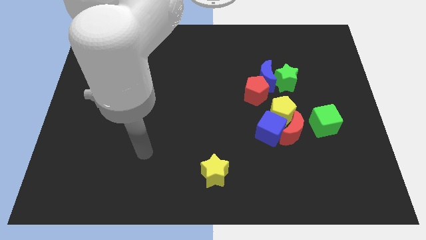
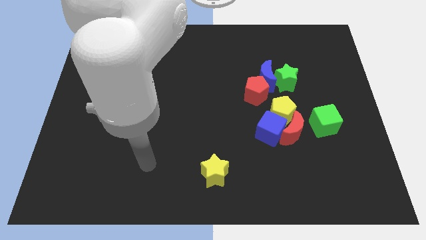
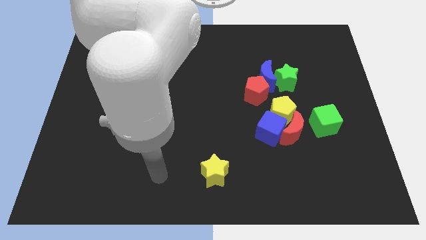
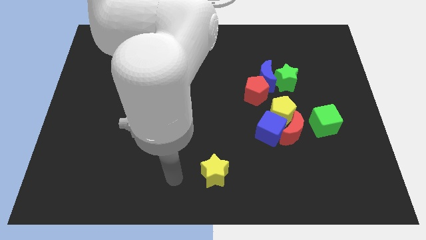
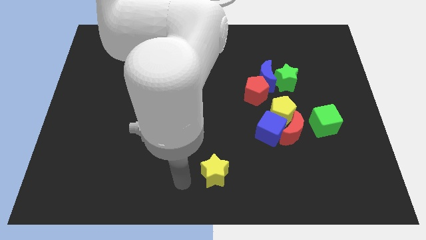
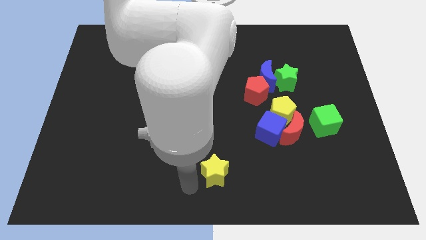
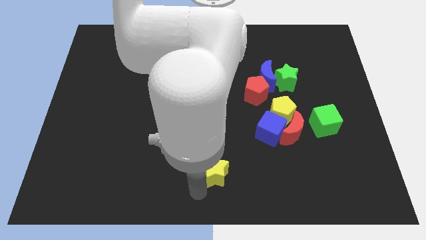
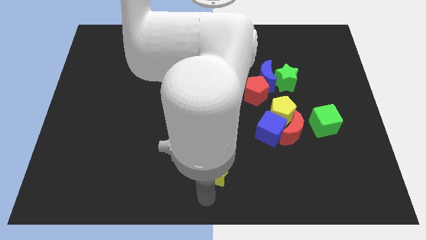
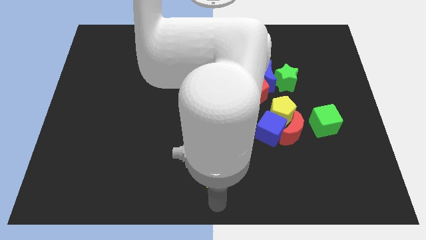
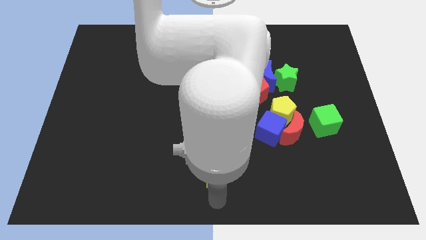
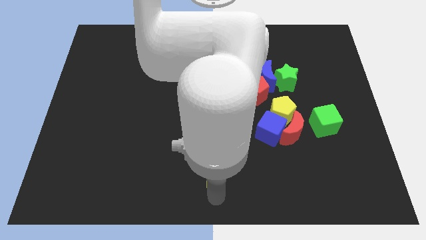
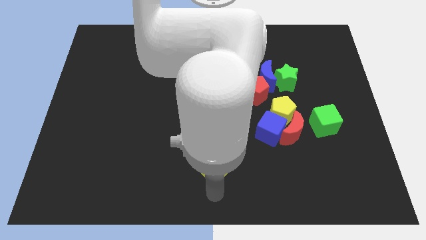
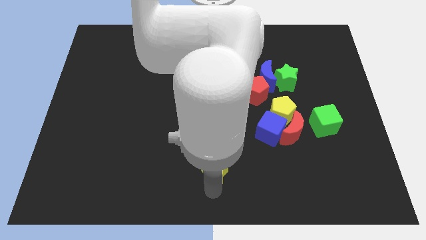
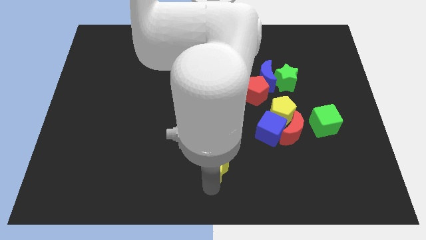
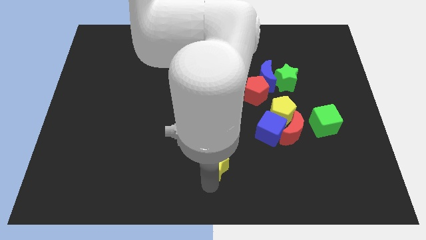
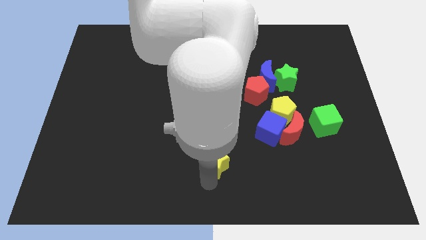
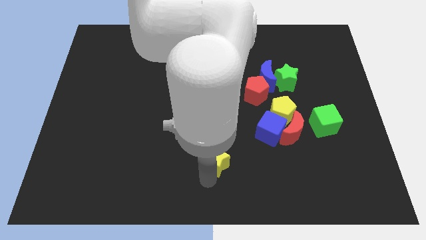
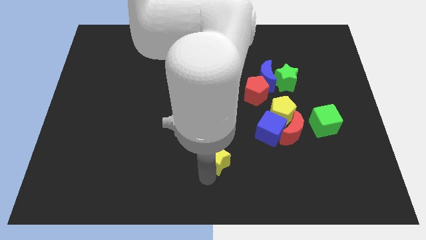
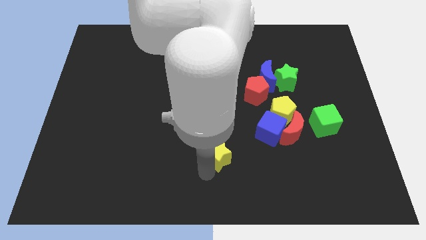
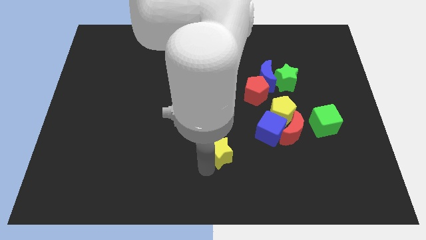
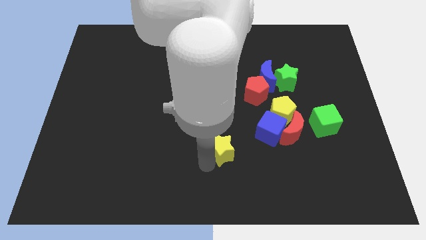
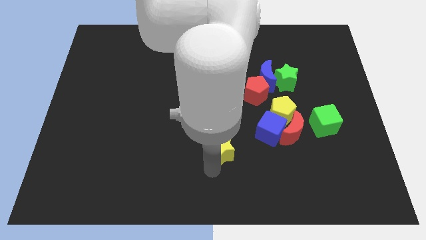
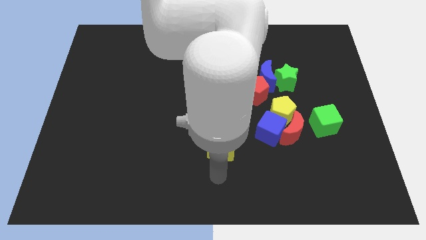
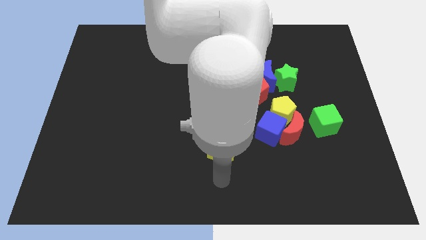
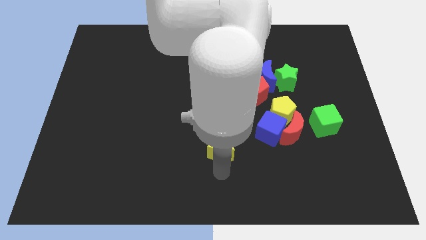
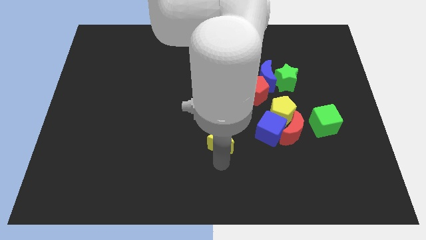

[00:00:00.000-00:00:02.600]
move the yellow star up somewhat

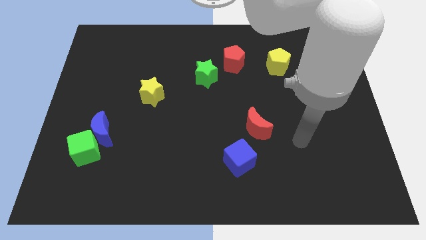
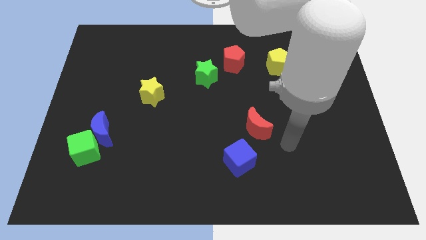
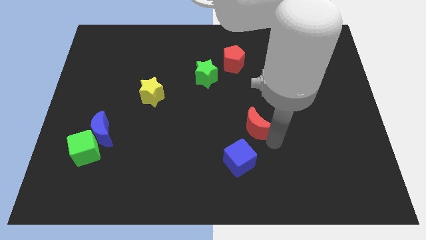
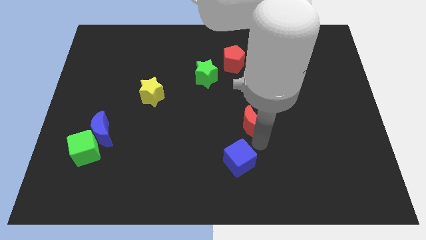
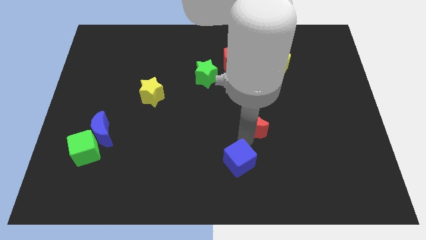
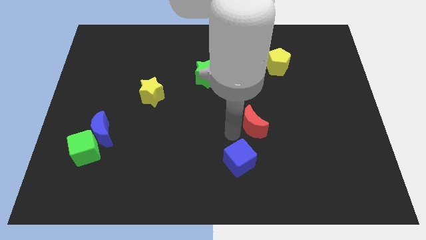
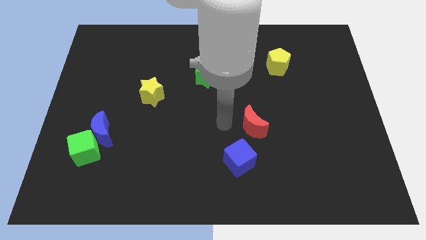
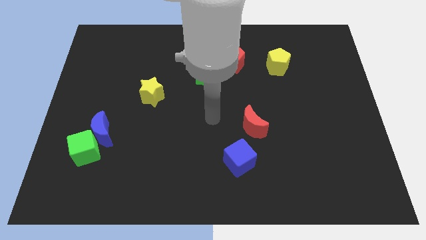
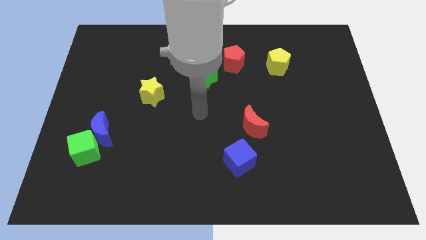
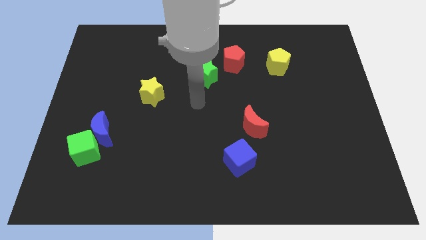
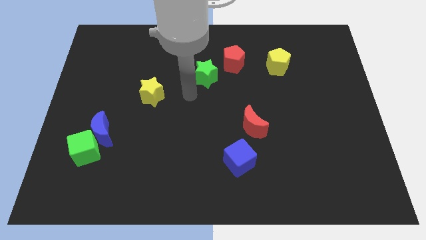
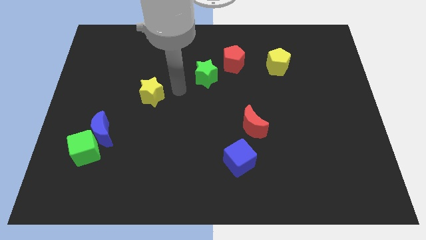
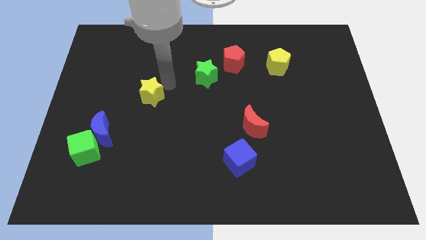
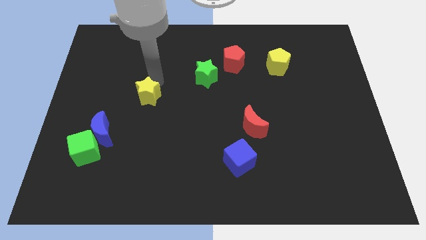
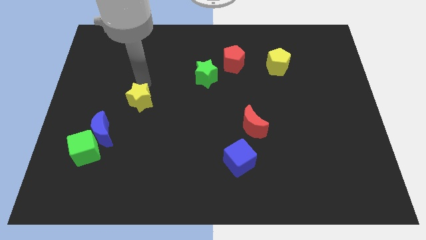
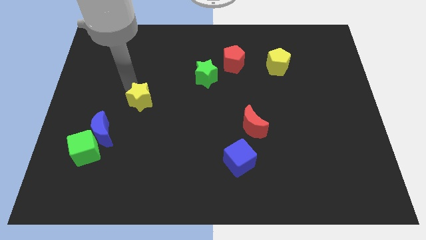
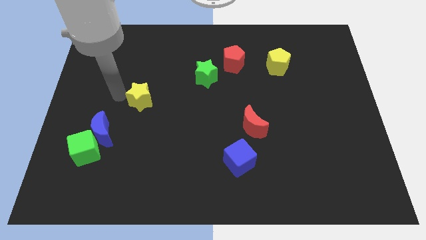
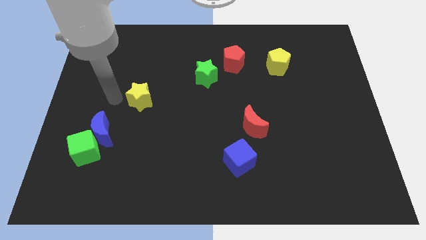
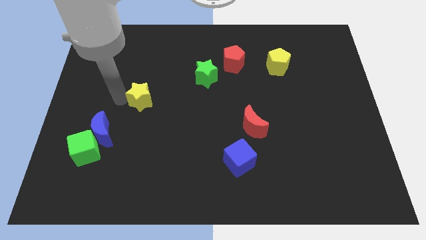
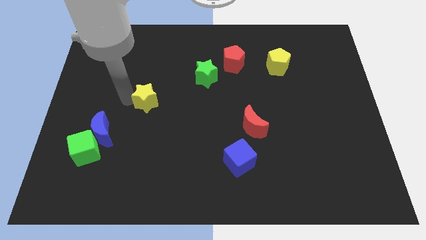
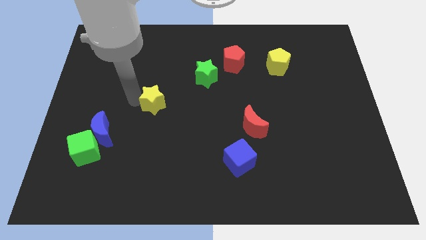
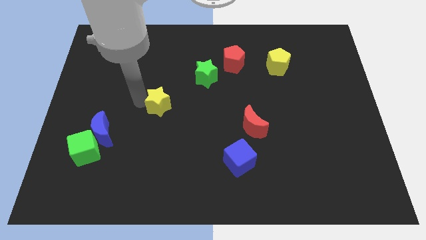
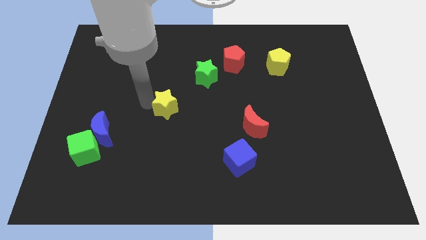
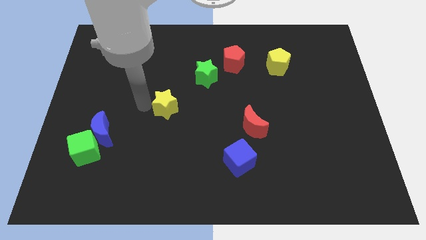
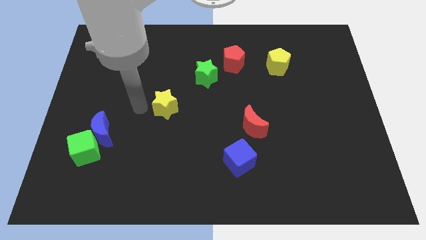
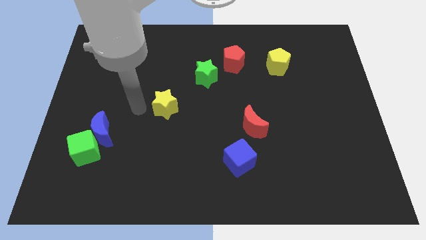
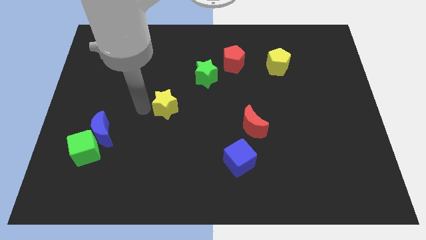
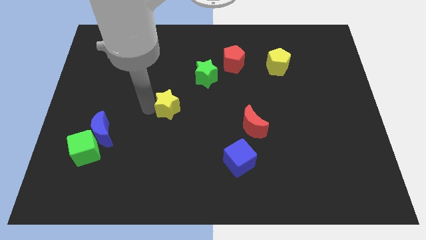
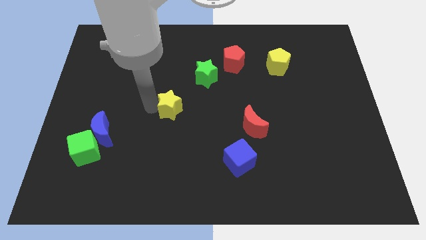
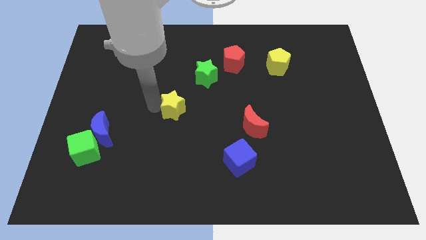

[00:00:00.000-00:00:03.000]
move the yellow star down and to the right diagonally a bit

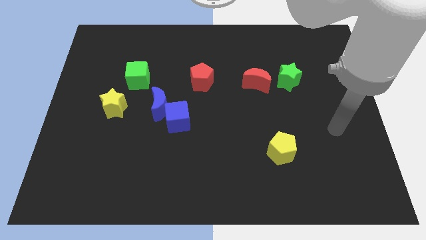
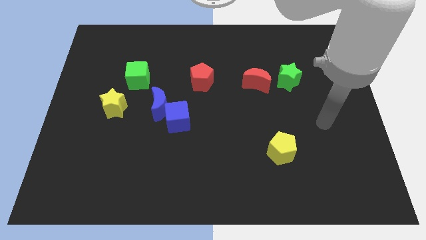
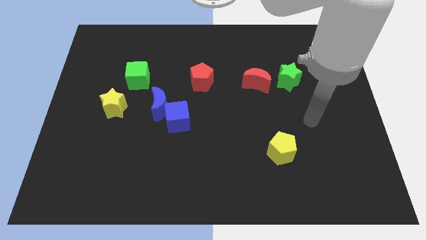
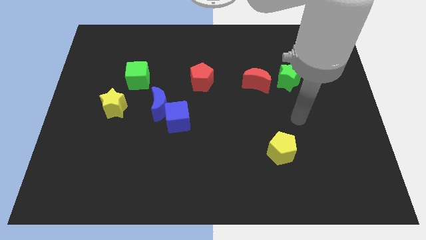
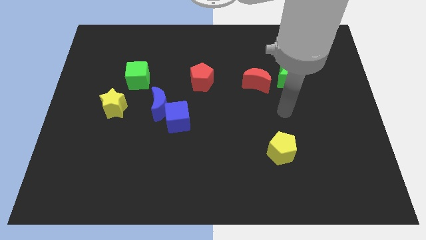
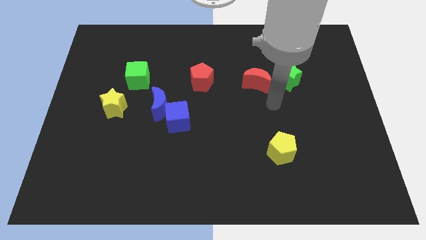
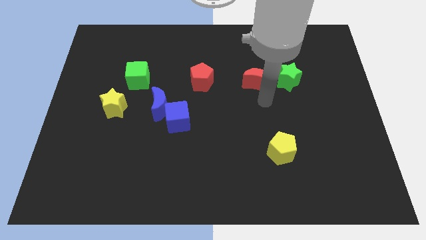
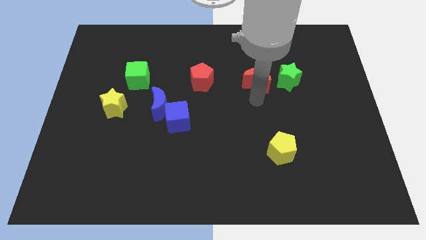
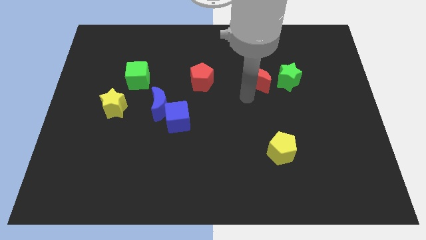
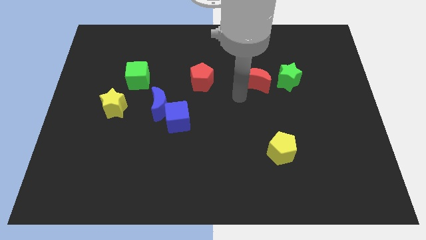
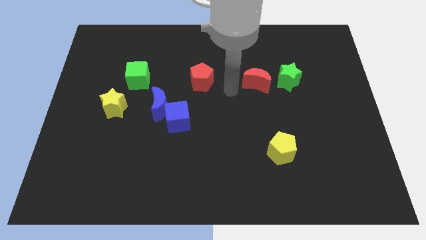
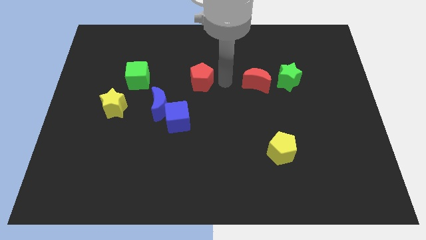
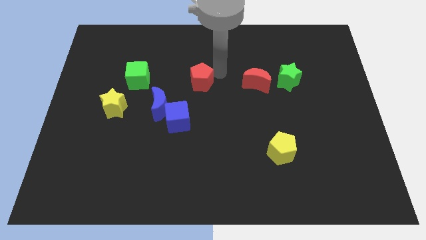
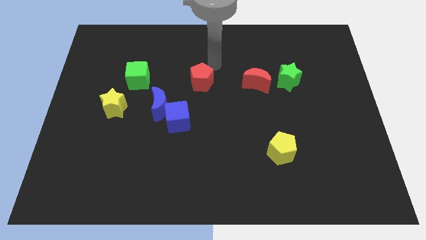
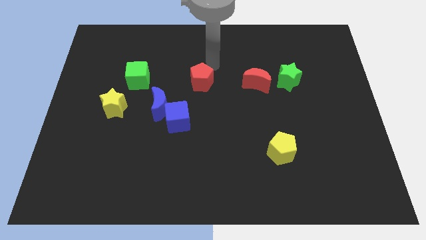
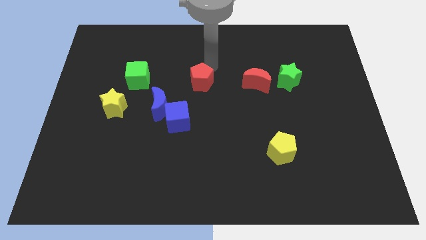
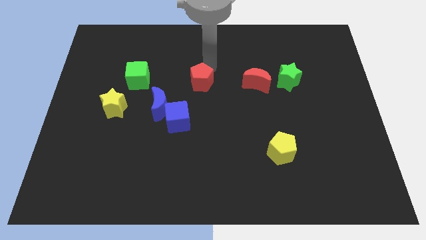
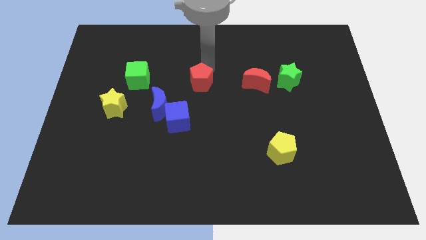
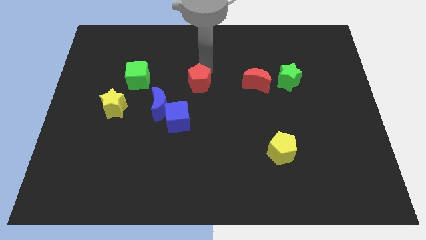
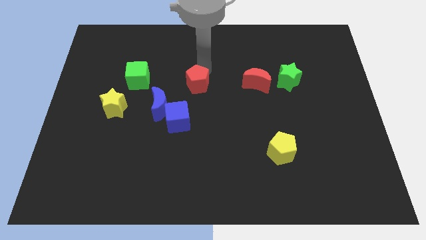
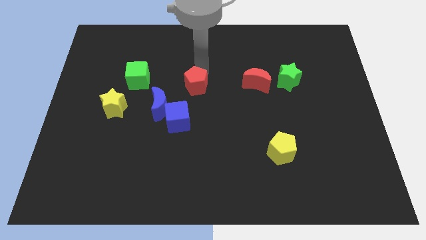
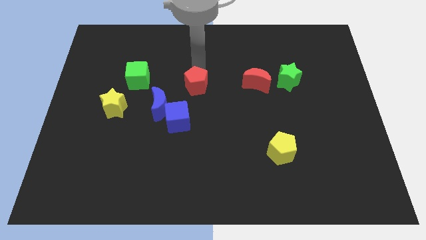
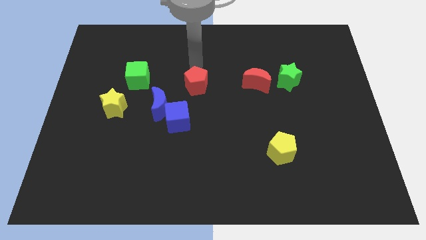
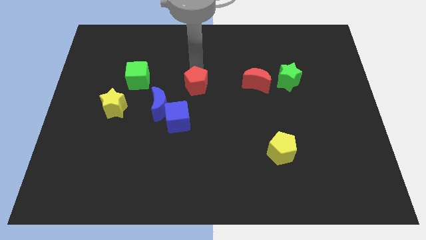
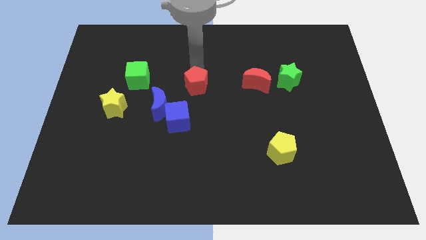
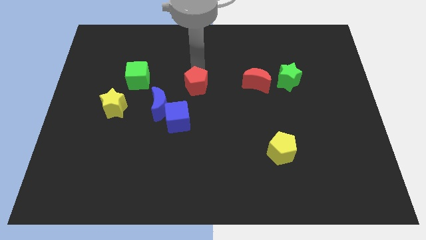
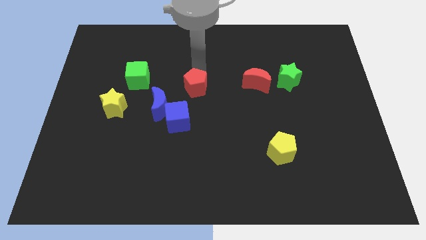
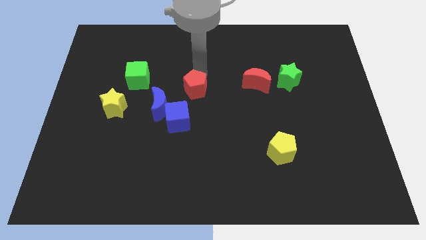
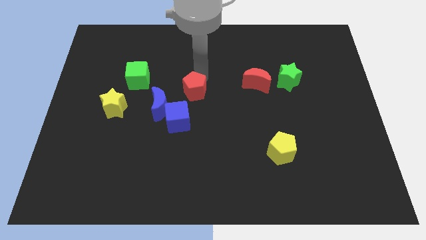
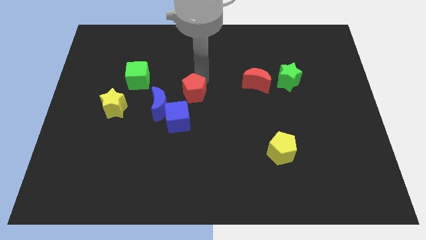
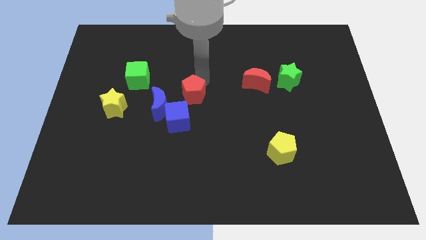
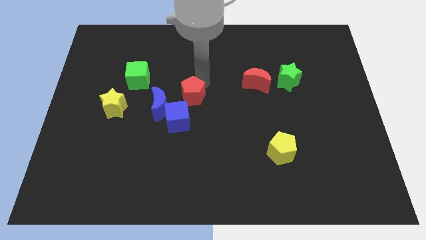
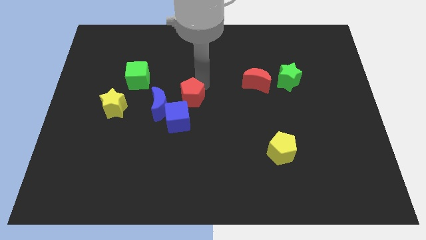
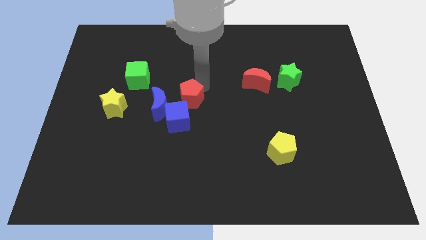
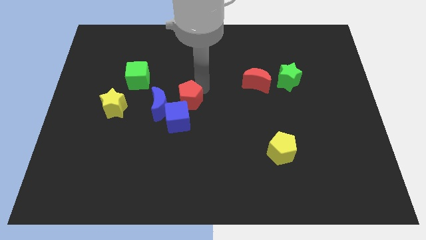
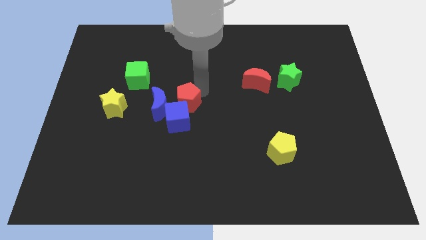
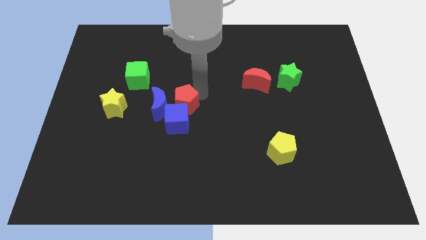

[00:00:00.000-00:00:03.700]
slightly move the red pentagon down and then to the left
